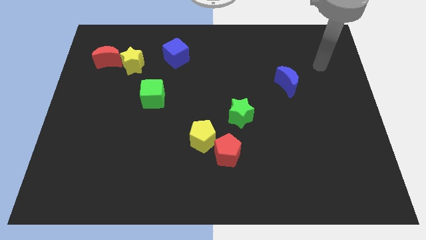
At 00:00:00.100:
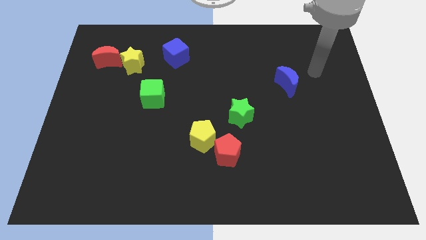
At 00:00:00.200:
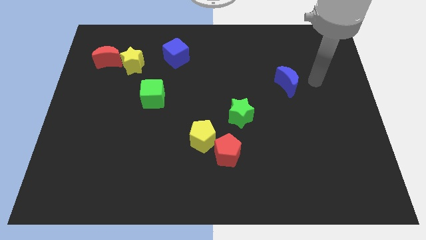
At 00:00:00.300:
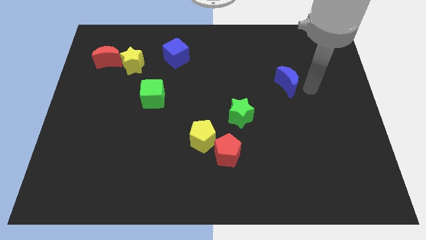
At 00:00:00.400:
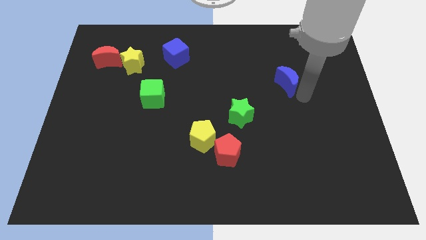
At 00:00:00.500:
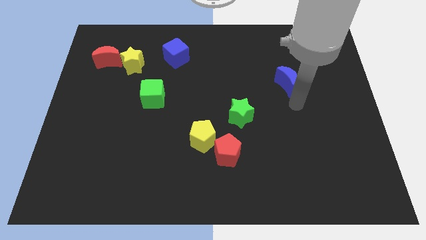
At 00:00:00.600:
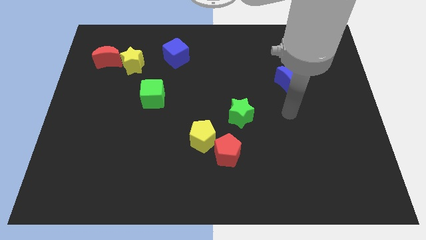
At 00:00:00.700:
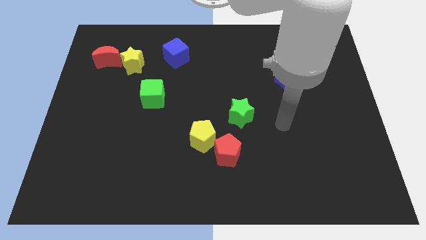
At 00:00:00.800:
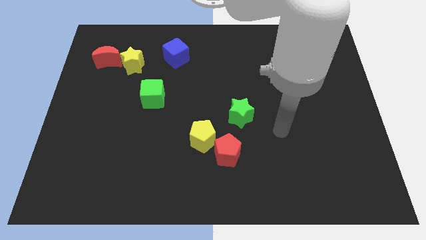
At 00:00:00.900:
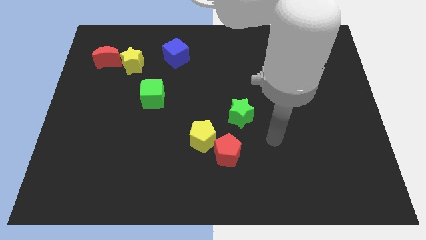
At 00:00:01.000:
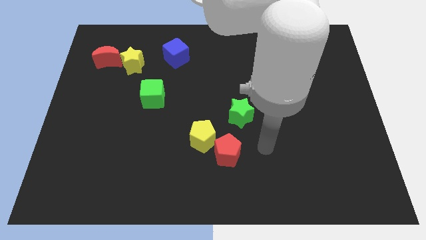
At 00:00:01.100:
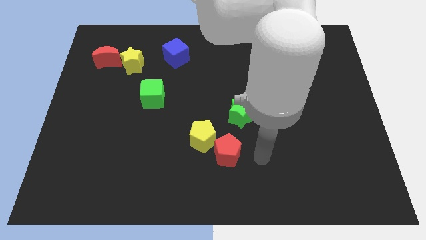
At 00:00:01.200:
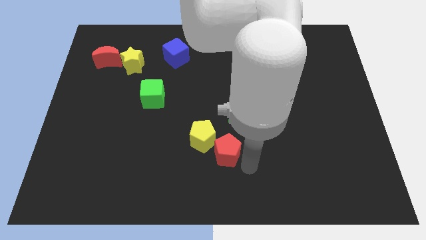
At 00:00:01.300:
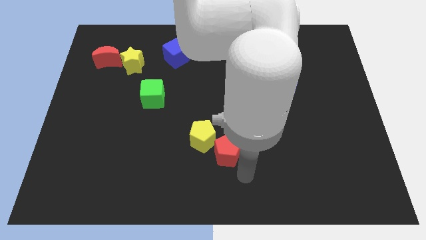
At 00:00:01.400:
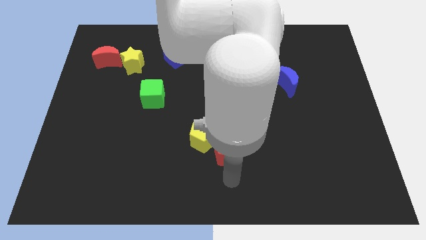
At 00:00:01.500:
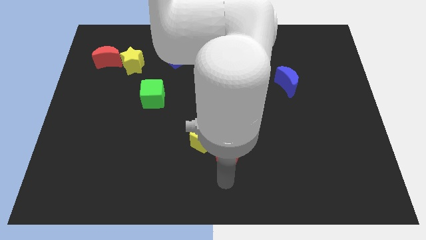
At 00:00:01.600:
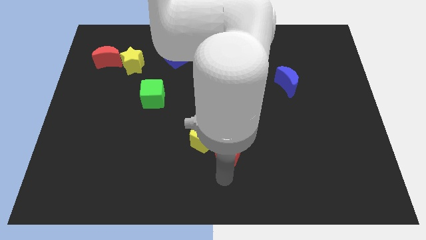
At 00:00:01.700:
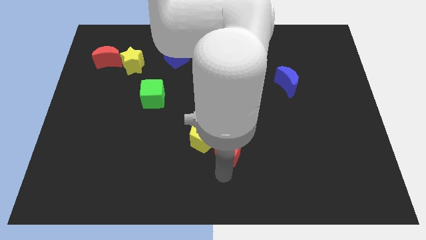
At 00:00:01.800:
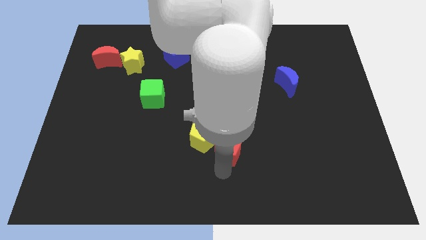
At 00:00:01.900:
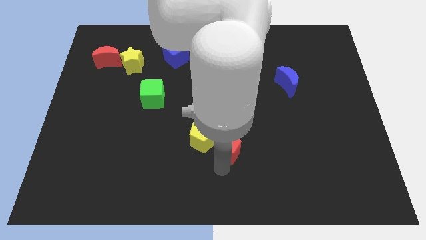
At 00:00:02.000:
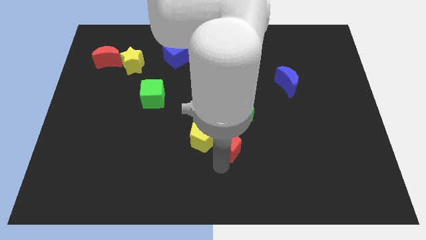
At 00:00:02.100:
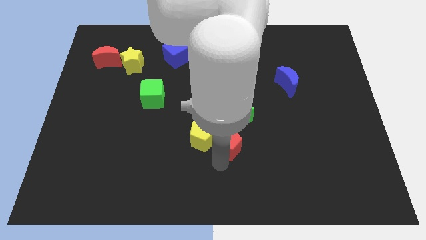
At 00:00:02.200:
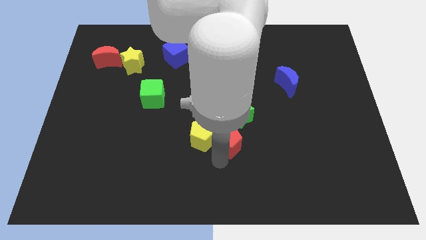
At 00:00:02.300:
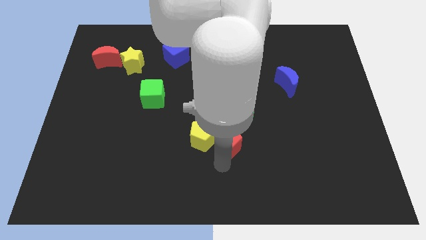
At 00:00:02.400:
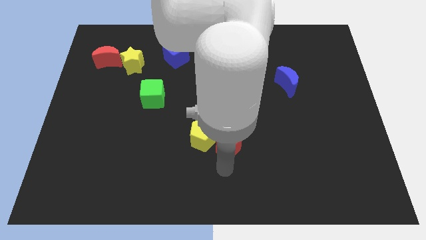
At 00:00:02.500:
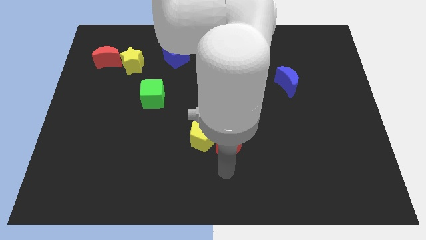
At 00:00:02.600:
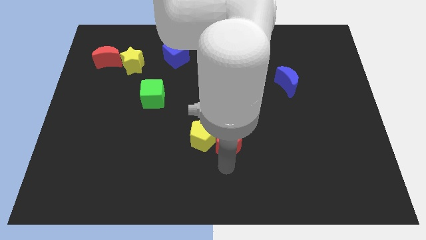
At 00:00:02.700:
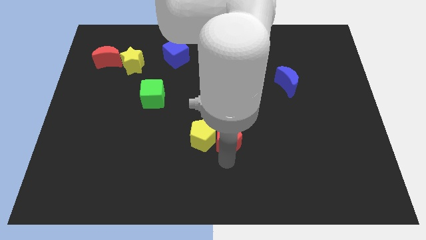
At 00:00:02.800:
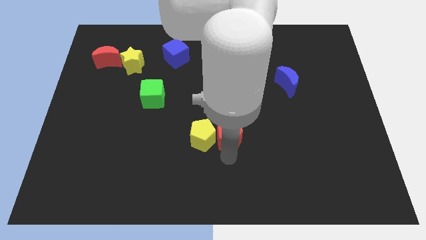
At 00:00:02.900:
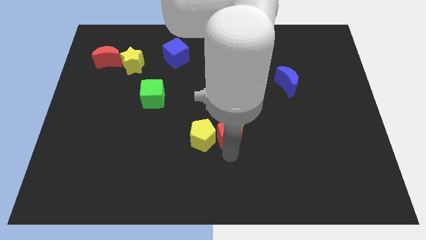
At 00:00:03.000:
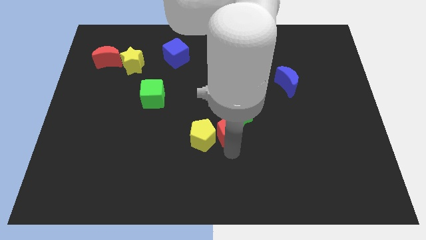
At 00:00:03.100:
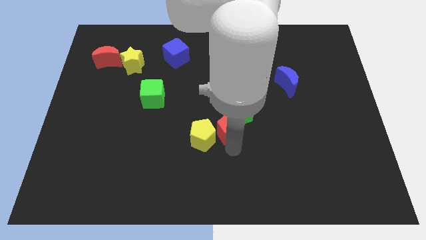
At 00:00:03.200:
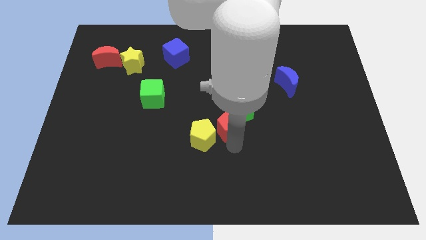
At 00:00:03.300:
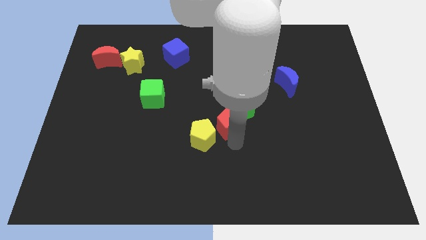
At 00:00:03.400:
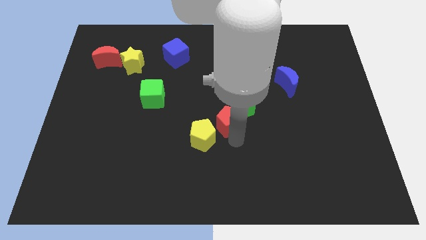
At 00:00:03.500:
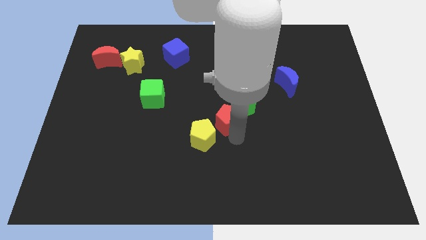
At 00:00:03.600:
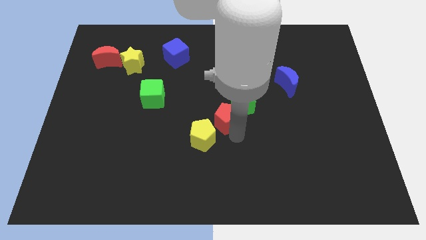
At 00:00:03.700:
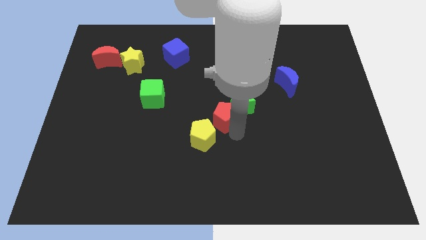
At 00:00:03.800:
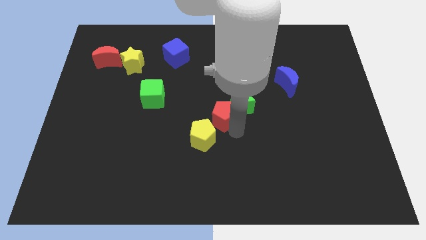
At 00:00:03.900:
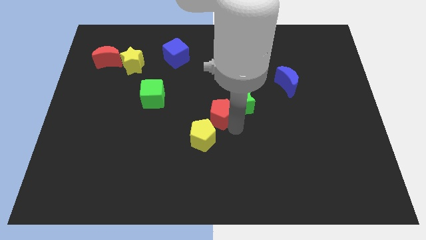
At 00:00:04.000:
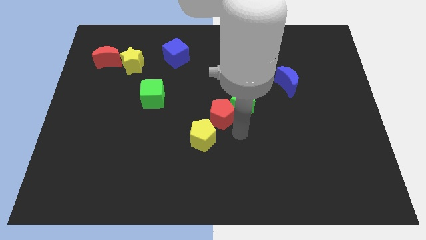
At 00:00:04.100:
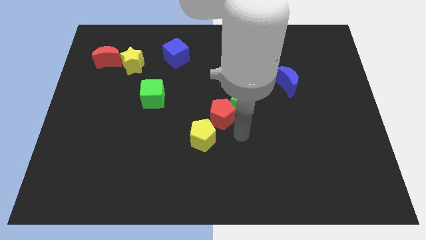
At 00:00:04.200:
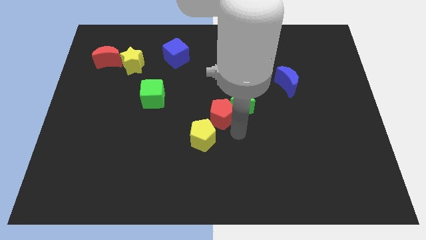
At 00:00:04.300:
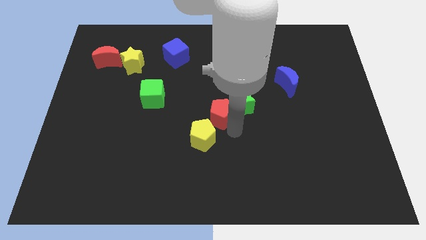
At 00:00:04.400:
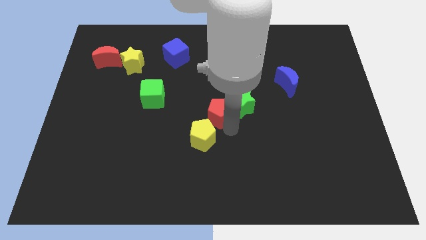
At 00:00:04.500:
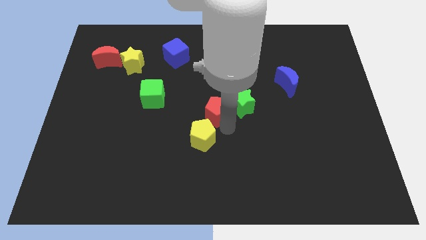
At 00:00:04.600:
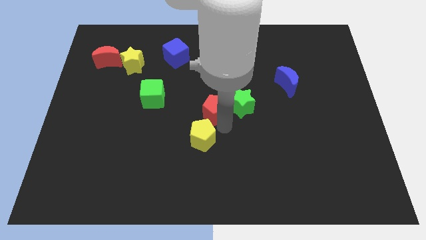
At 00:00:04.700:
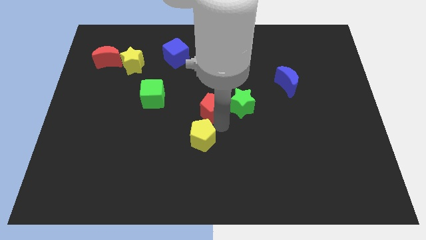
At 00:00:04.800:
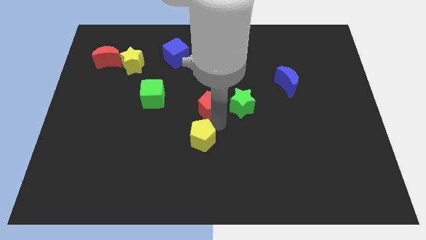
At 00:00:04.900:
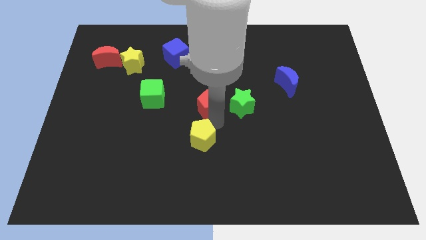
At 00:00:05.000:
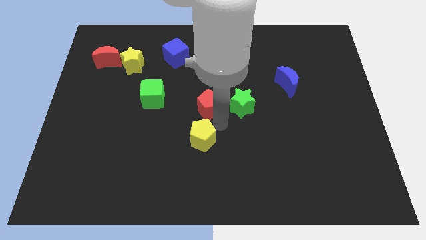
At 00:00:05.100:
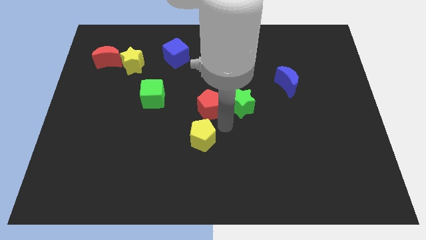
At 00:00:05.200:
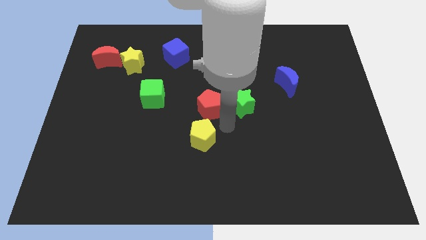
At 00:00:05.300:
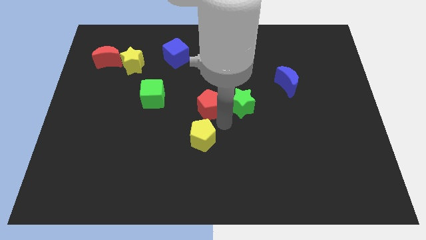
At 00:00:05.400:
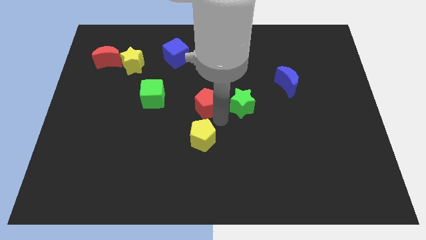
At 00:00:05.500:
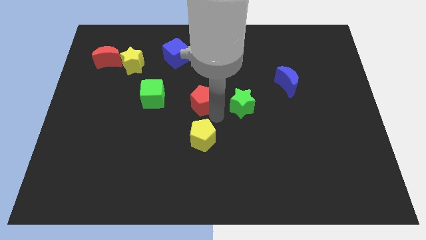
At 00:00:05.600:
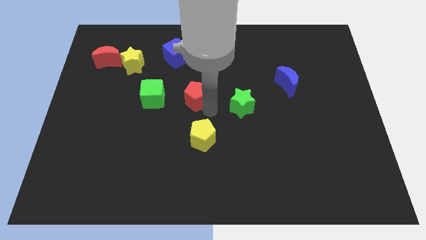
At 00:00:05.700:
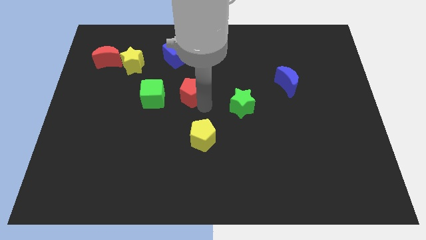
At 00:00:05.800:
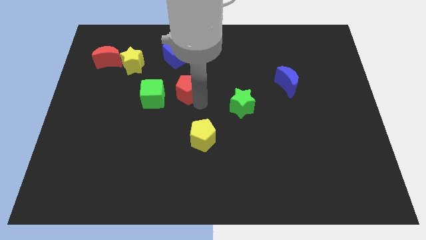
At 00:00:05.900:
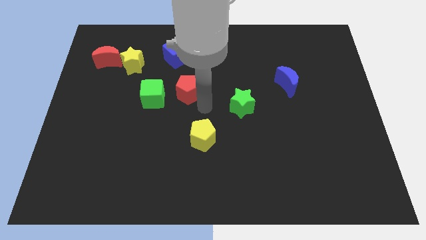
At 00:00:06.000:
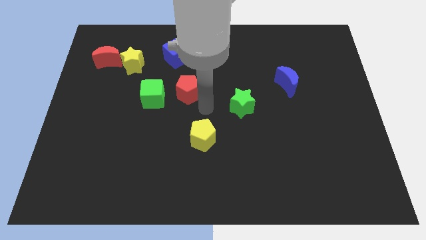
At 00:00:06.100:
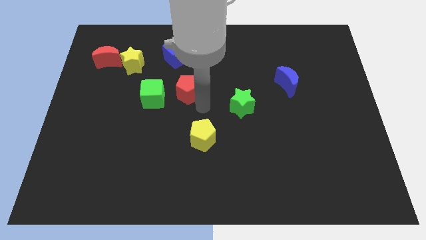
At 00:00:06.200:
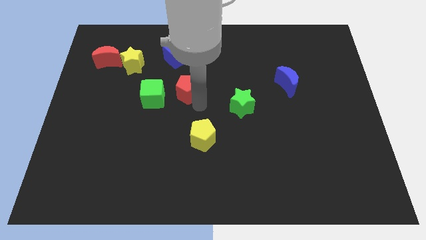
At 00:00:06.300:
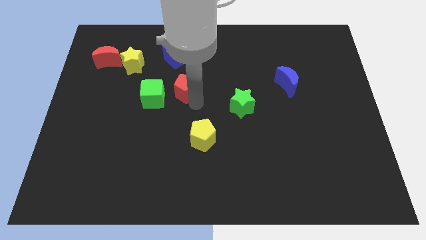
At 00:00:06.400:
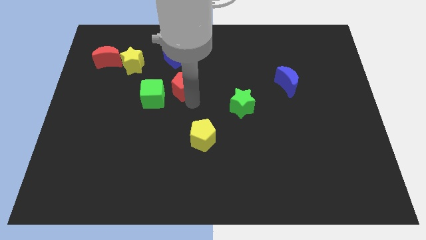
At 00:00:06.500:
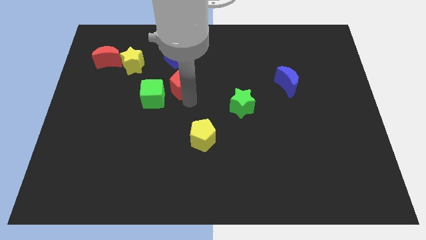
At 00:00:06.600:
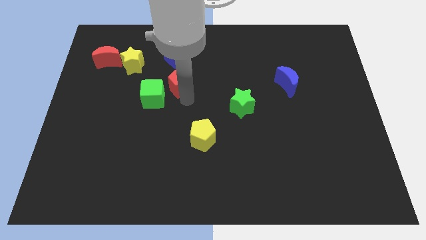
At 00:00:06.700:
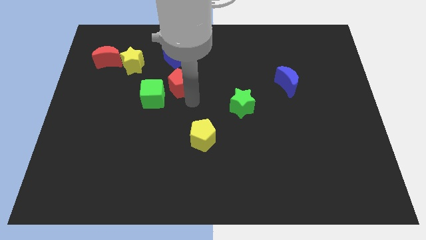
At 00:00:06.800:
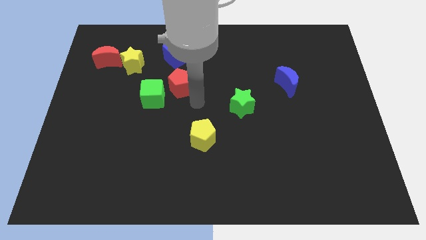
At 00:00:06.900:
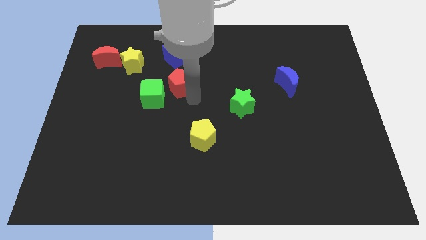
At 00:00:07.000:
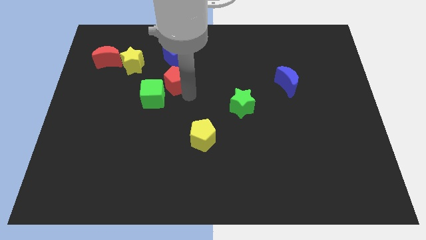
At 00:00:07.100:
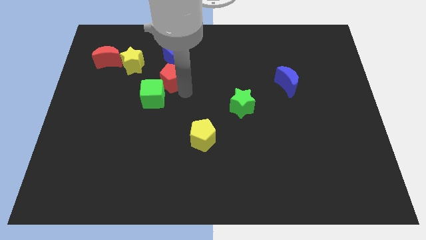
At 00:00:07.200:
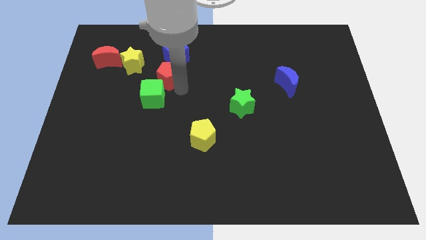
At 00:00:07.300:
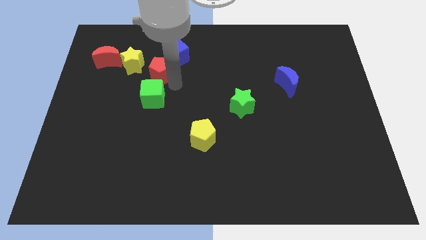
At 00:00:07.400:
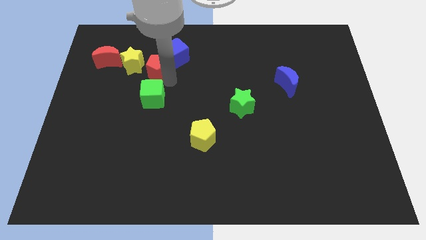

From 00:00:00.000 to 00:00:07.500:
move the red pentagon just right of the red moon
